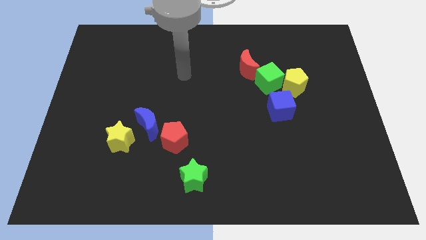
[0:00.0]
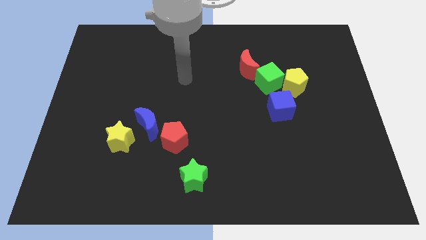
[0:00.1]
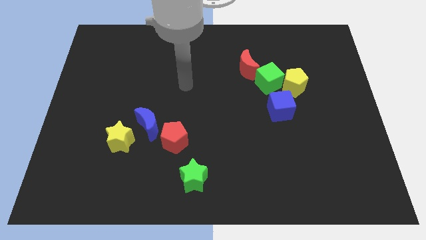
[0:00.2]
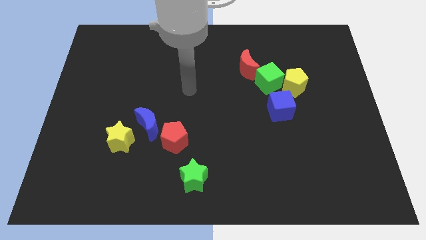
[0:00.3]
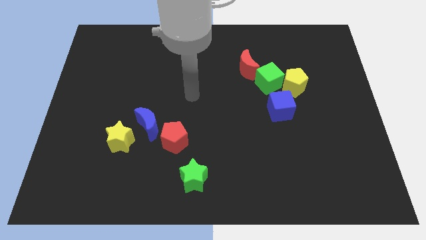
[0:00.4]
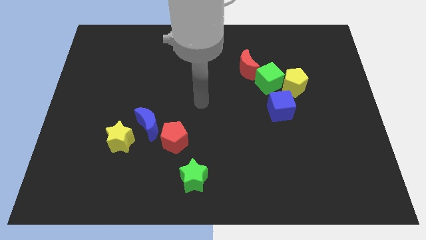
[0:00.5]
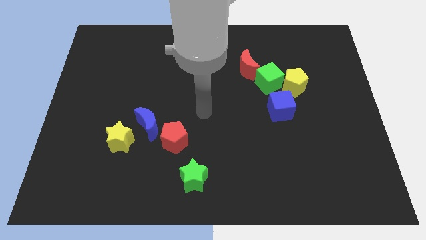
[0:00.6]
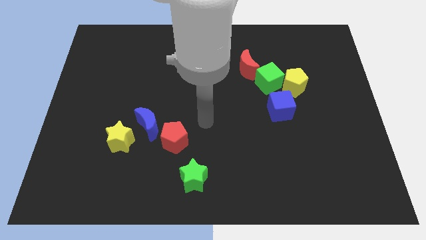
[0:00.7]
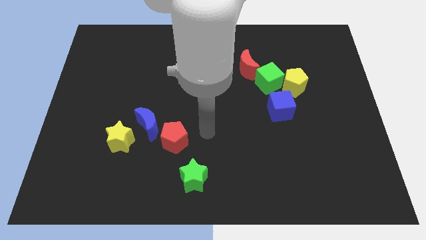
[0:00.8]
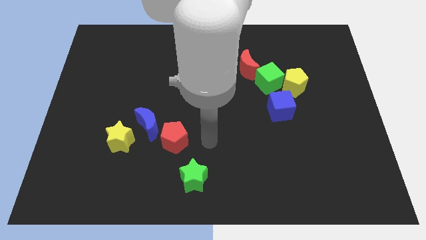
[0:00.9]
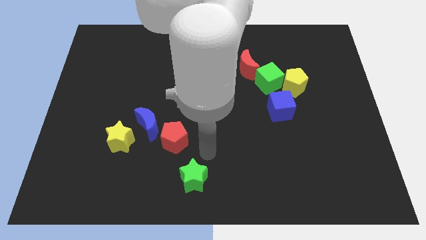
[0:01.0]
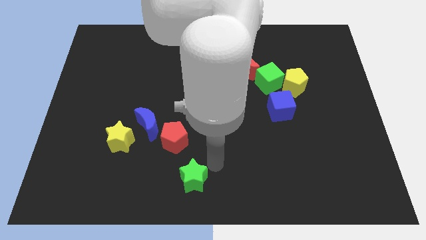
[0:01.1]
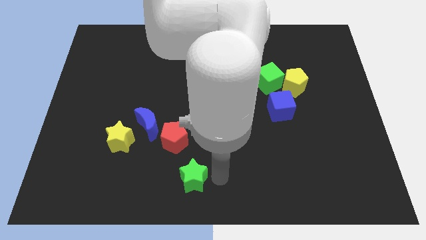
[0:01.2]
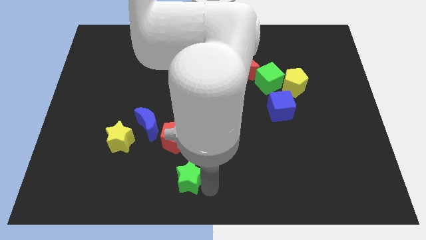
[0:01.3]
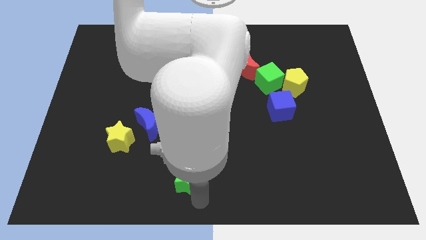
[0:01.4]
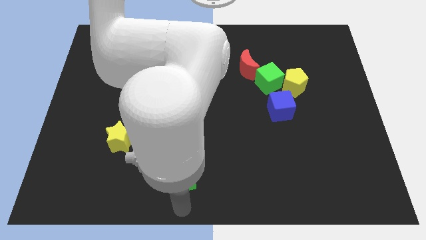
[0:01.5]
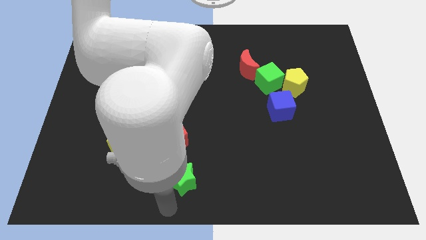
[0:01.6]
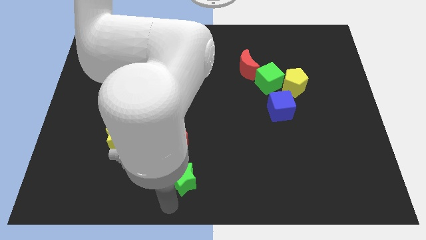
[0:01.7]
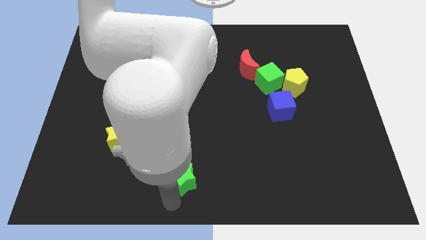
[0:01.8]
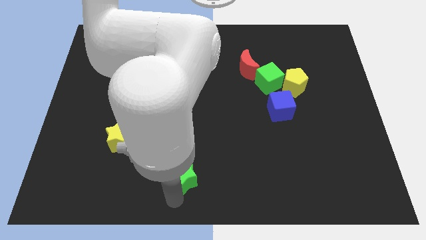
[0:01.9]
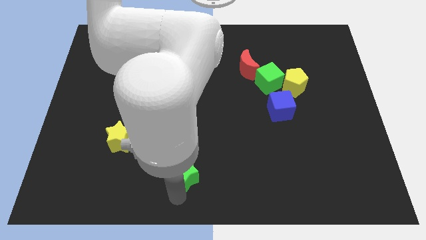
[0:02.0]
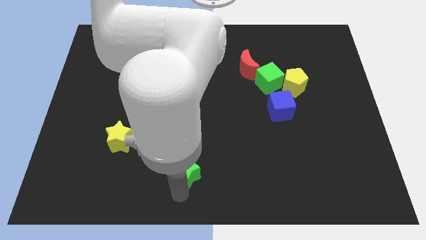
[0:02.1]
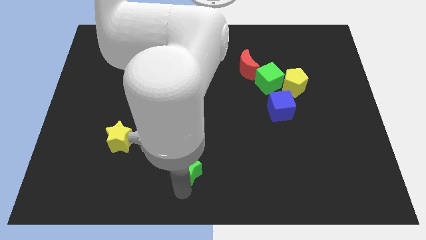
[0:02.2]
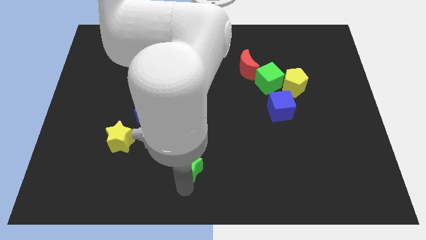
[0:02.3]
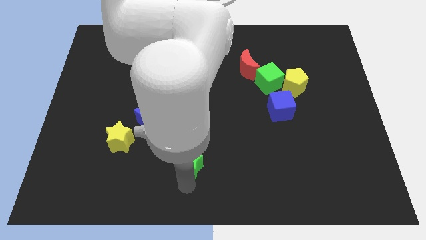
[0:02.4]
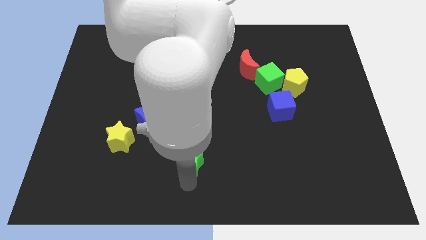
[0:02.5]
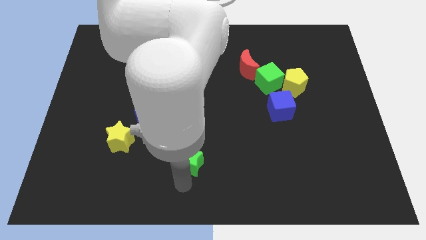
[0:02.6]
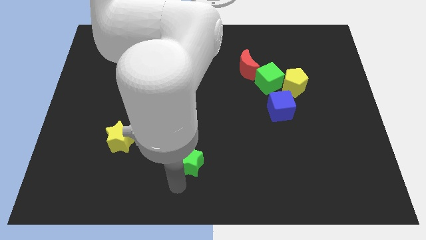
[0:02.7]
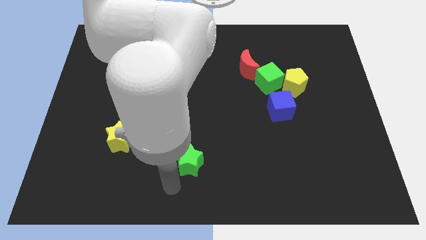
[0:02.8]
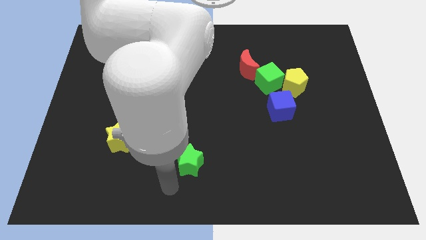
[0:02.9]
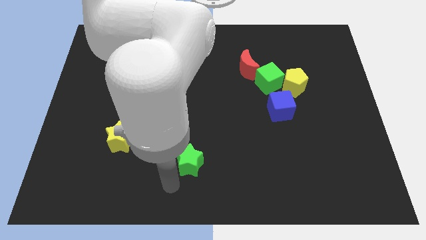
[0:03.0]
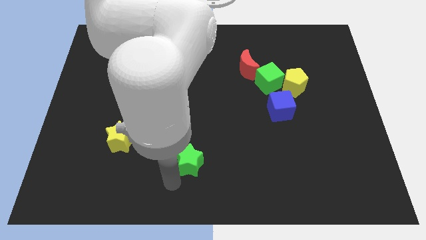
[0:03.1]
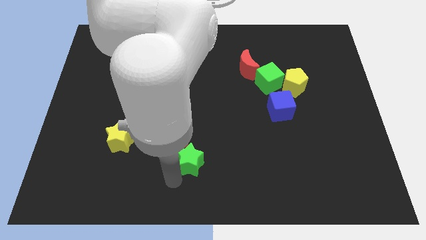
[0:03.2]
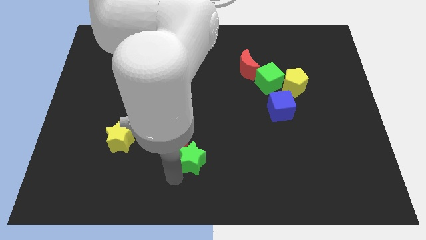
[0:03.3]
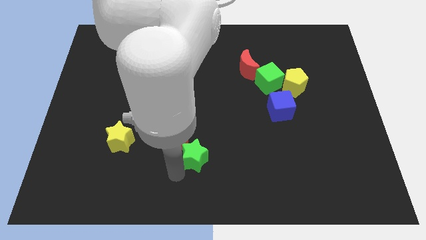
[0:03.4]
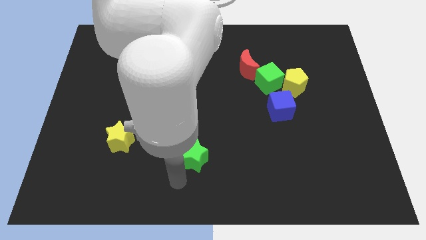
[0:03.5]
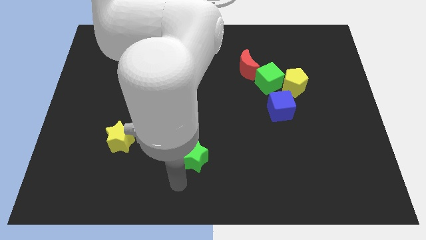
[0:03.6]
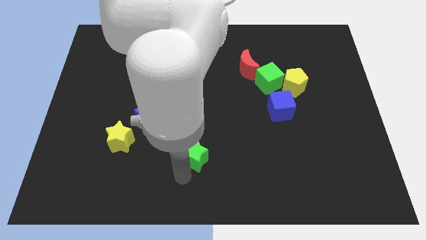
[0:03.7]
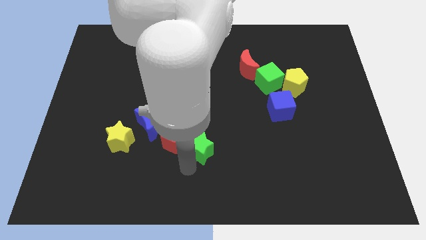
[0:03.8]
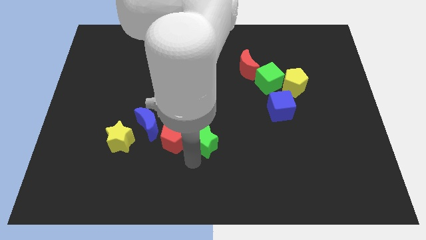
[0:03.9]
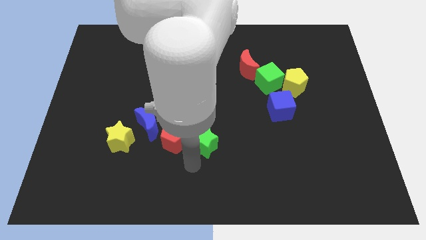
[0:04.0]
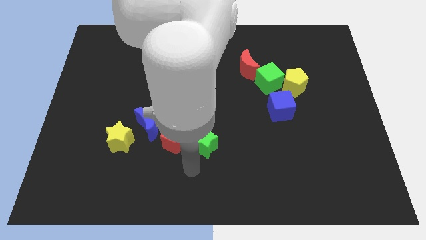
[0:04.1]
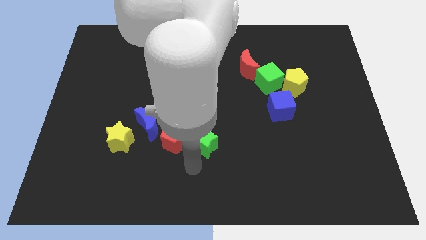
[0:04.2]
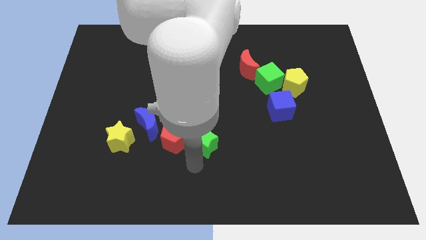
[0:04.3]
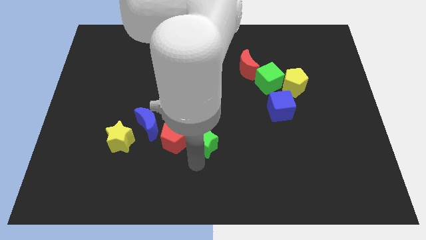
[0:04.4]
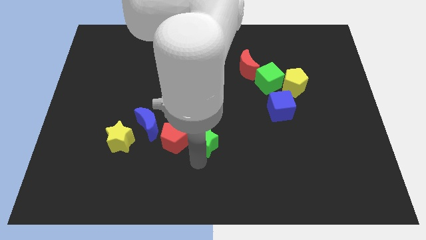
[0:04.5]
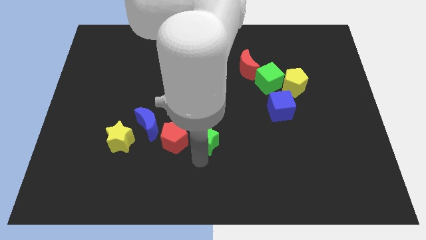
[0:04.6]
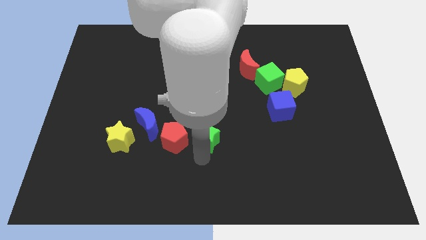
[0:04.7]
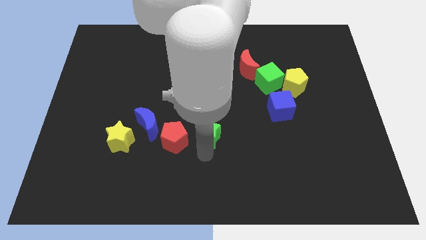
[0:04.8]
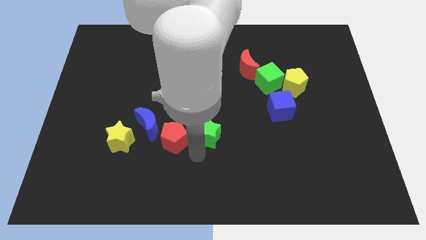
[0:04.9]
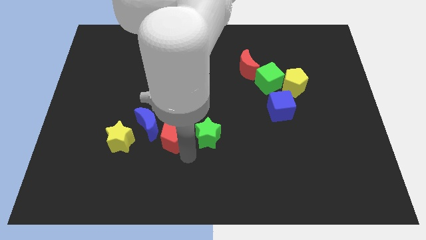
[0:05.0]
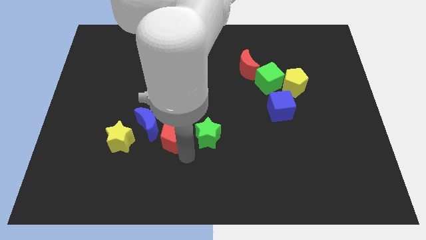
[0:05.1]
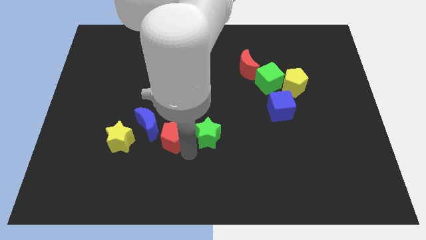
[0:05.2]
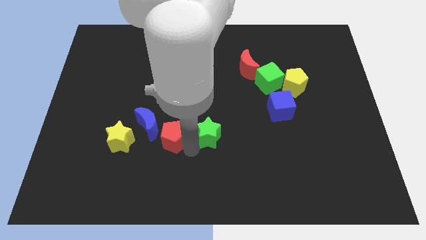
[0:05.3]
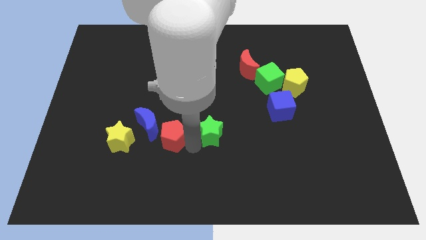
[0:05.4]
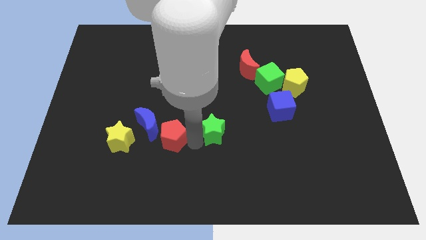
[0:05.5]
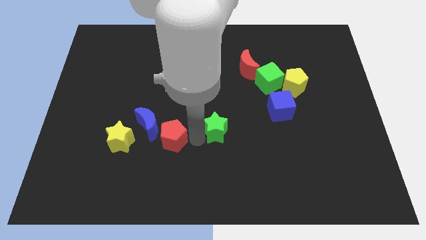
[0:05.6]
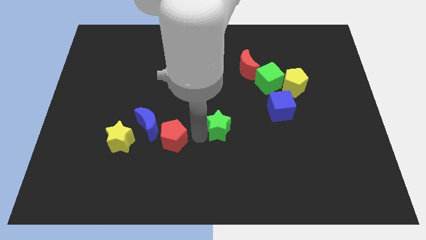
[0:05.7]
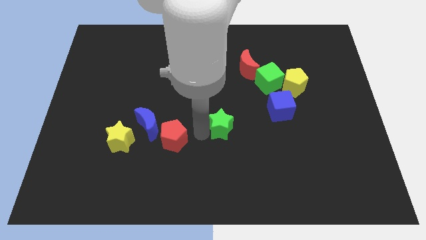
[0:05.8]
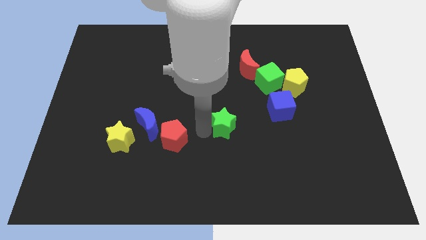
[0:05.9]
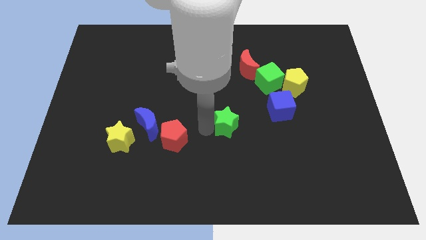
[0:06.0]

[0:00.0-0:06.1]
put the green star just left of the blue cube

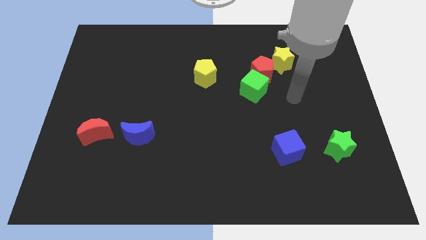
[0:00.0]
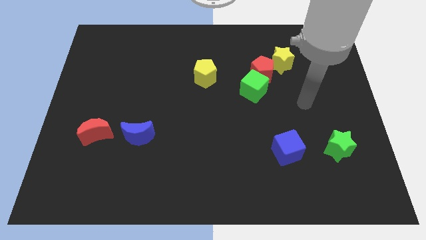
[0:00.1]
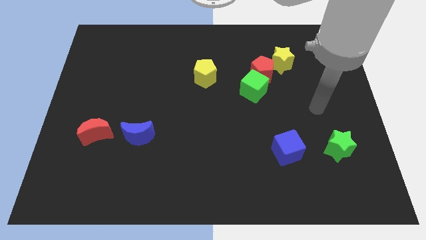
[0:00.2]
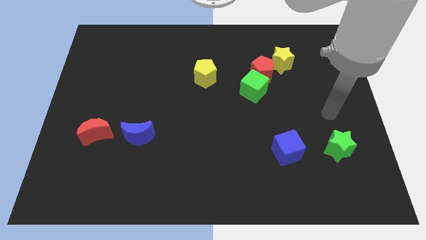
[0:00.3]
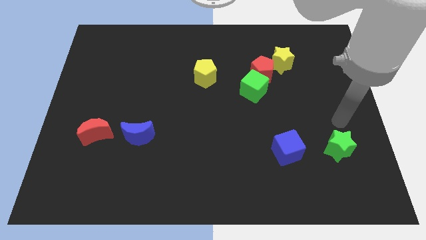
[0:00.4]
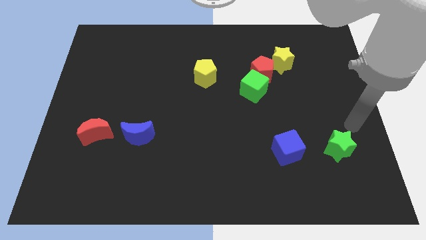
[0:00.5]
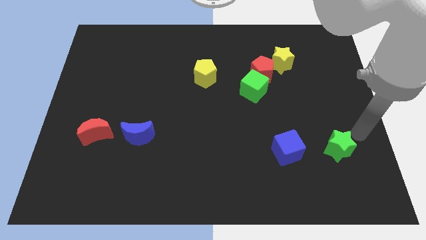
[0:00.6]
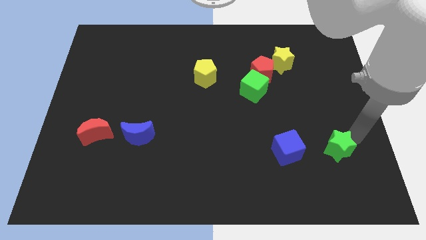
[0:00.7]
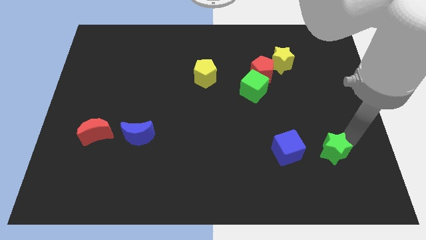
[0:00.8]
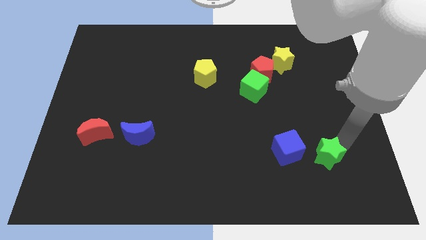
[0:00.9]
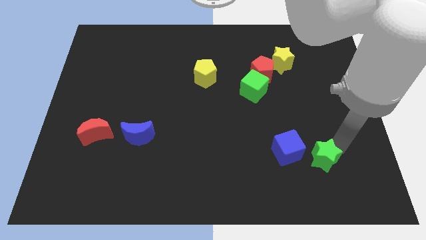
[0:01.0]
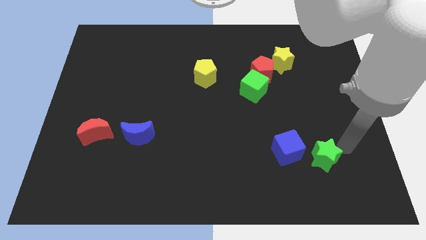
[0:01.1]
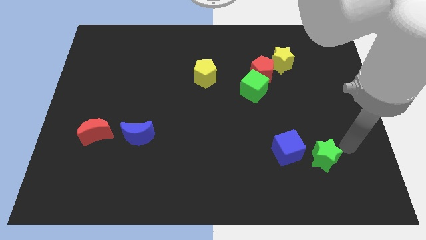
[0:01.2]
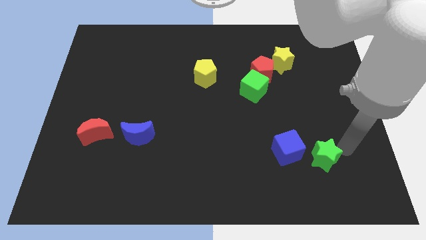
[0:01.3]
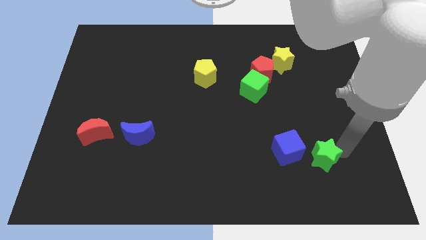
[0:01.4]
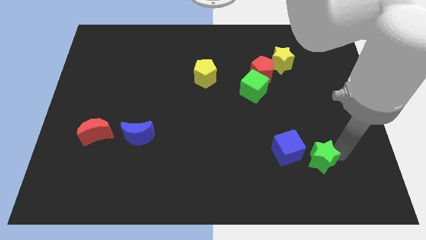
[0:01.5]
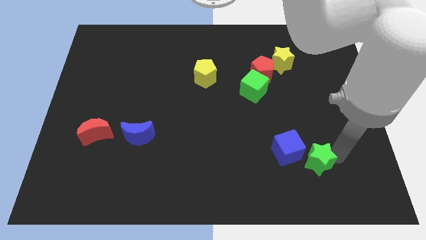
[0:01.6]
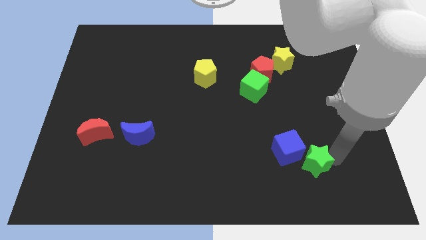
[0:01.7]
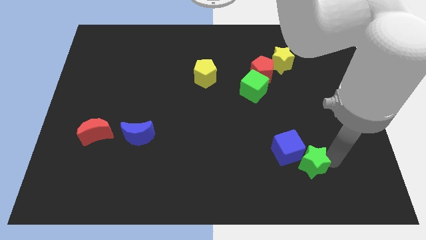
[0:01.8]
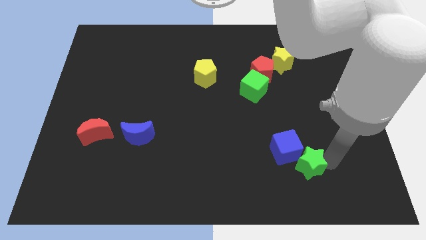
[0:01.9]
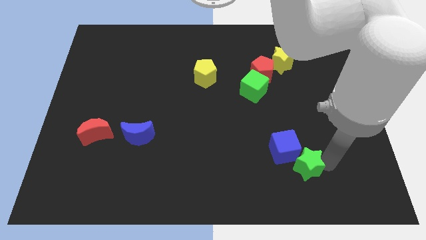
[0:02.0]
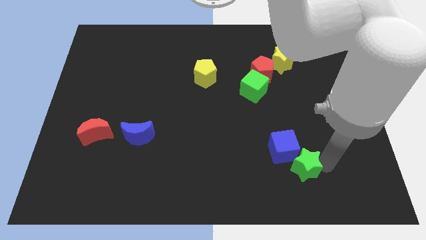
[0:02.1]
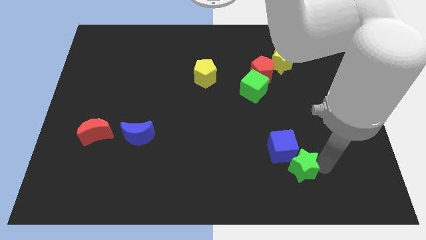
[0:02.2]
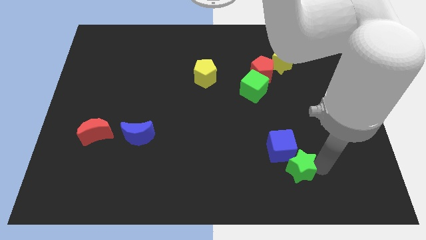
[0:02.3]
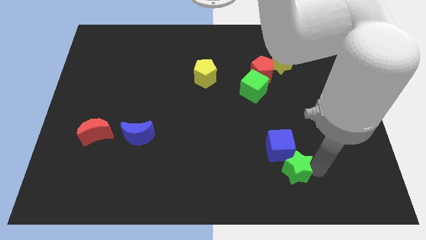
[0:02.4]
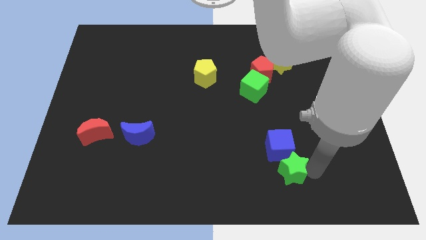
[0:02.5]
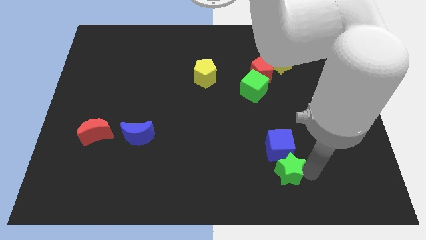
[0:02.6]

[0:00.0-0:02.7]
move the green star to the bottom left side of the blue cube
